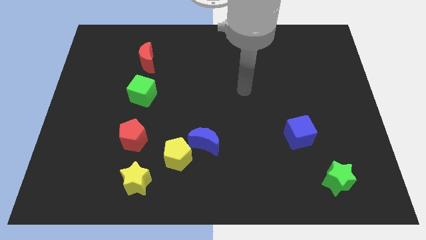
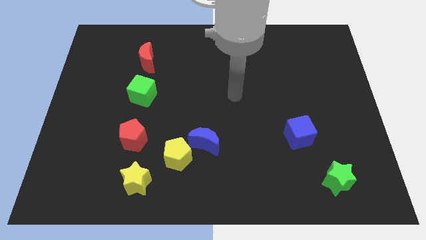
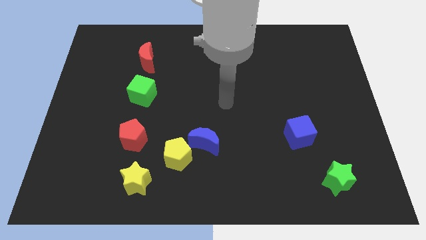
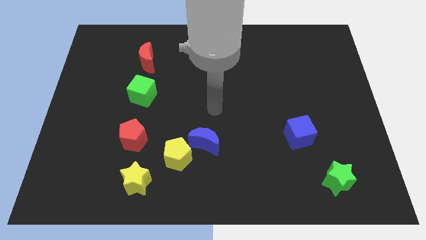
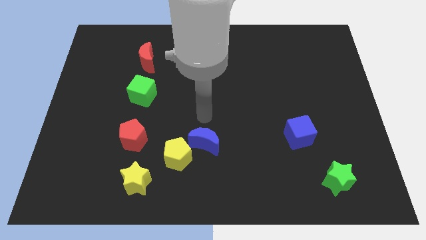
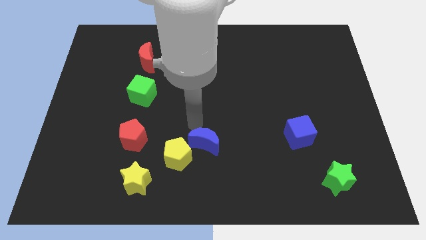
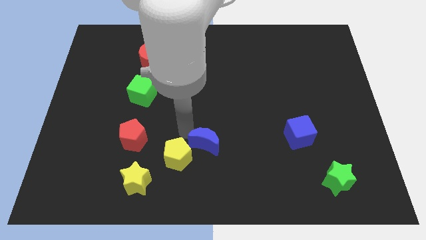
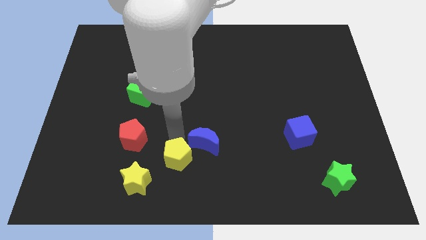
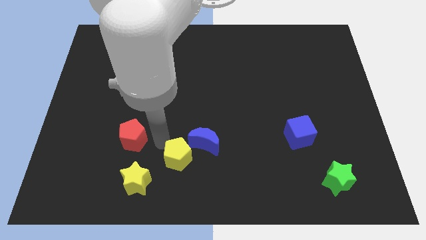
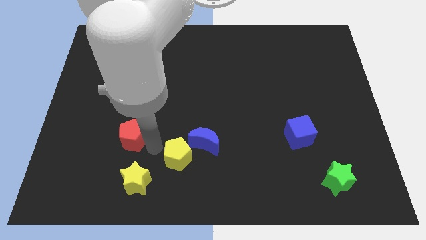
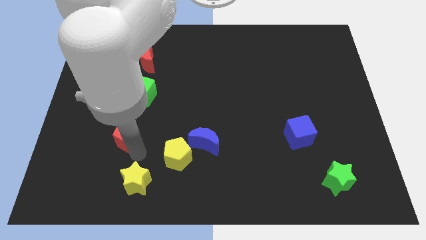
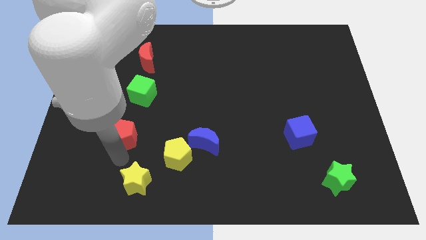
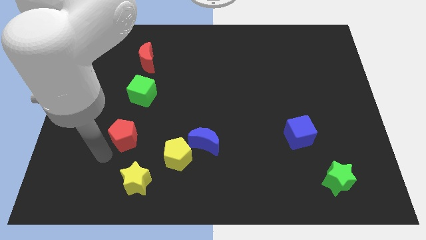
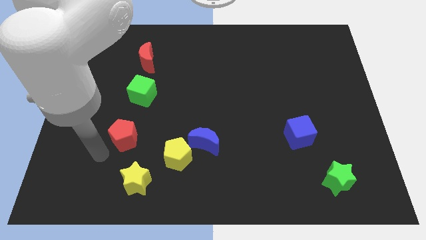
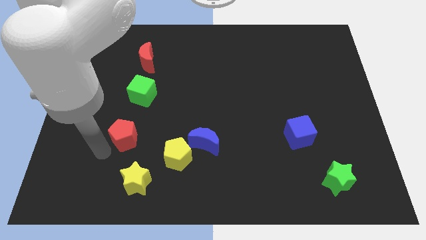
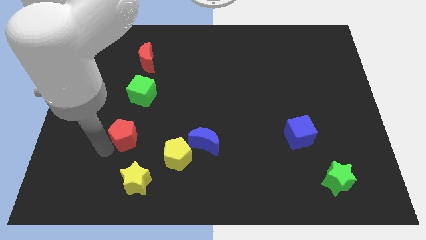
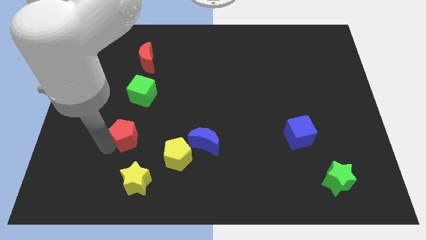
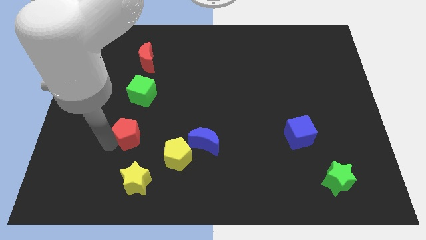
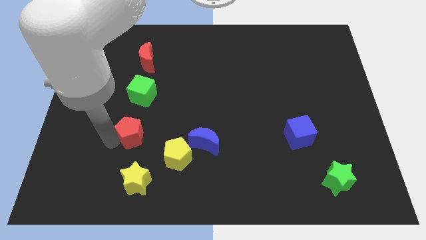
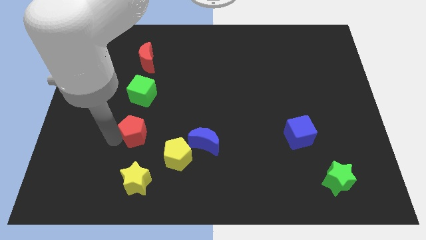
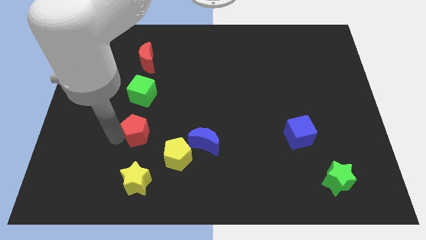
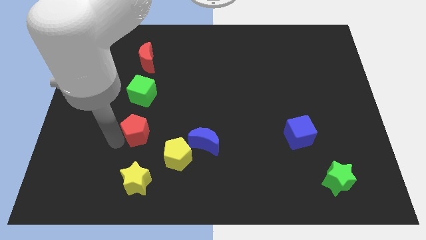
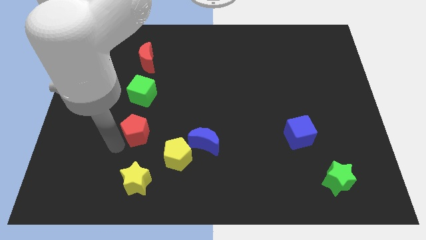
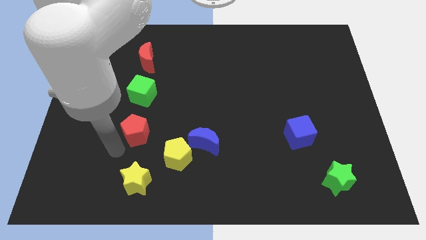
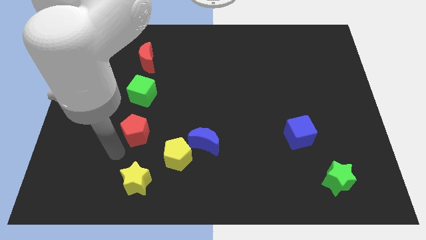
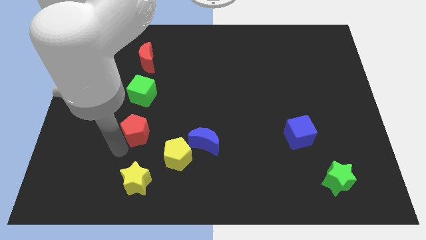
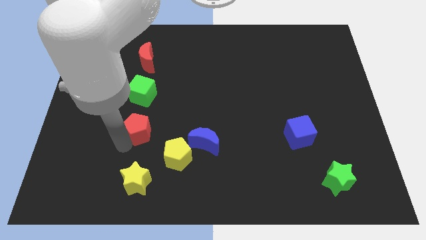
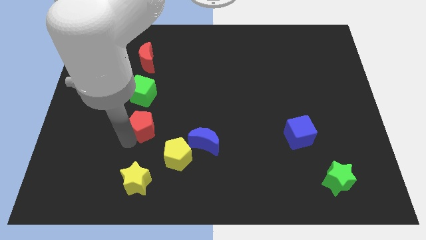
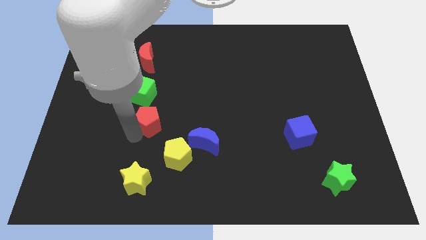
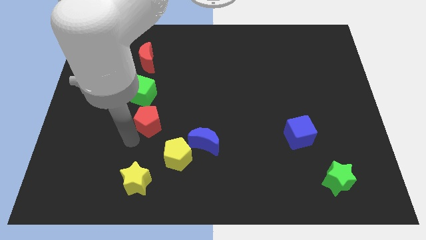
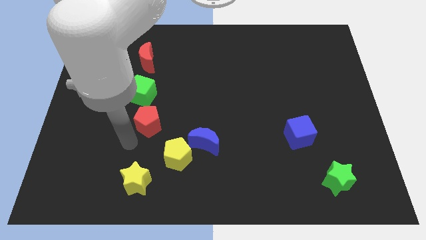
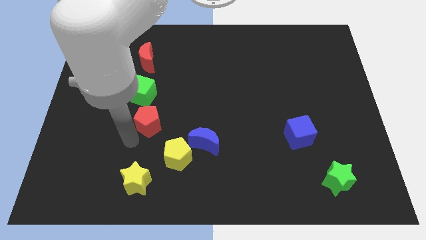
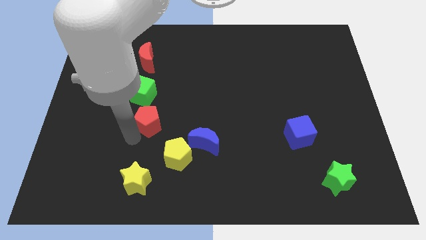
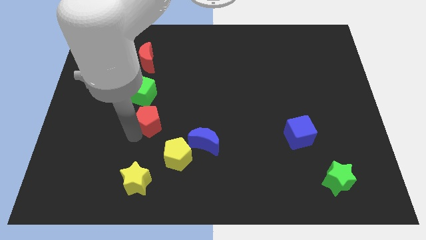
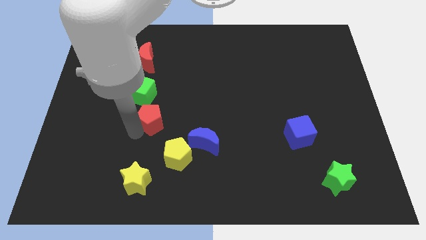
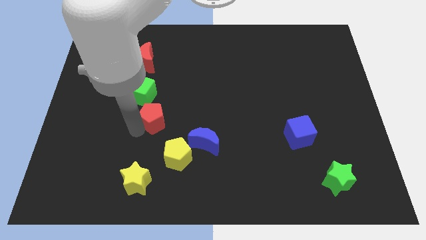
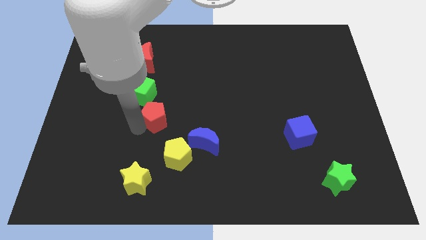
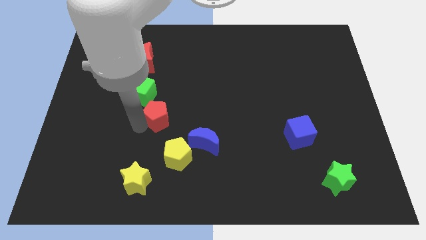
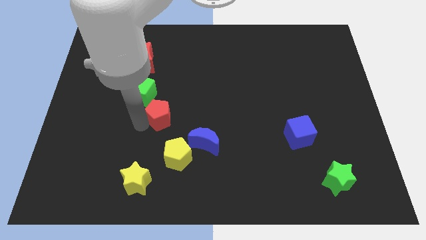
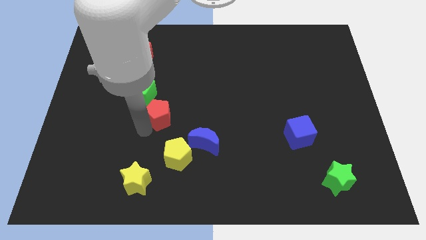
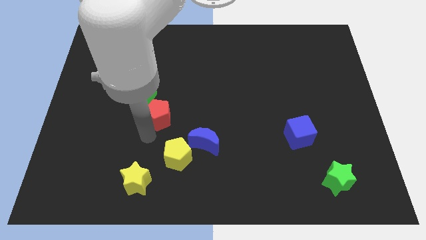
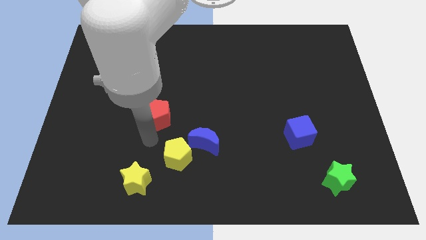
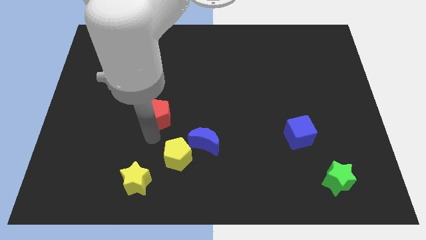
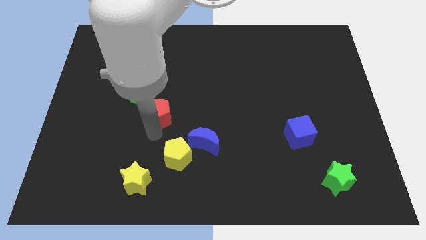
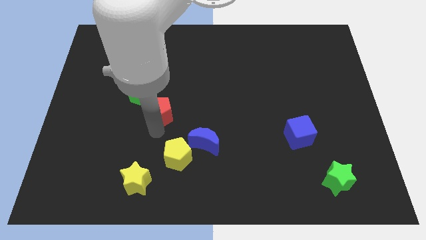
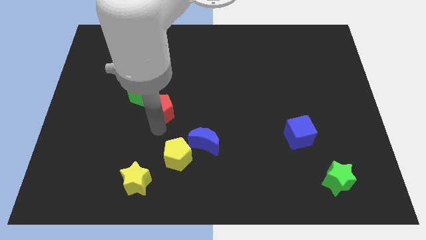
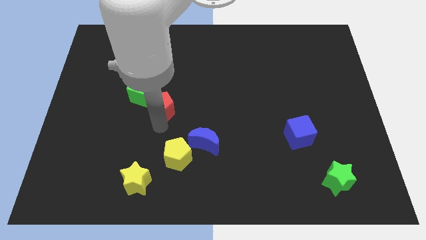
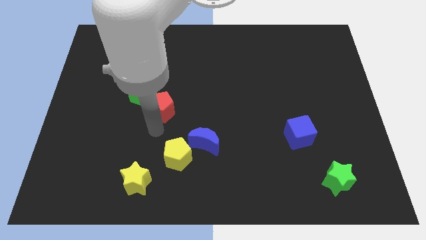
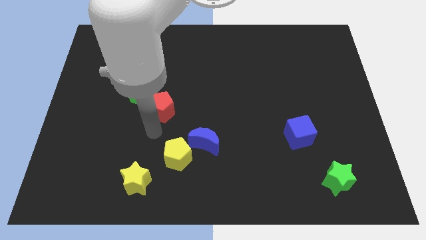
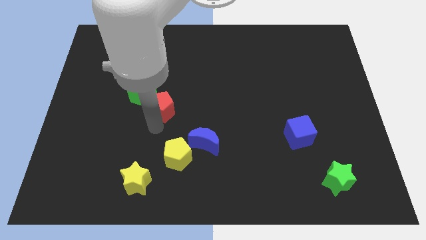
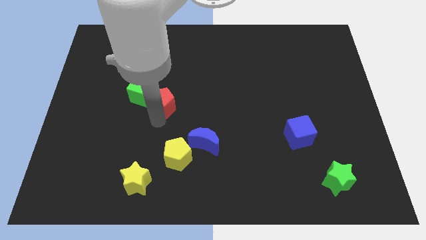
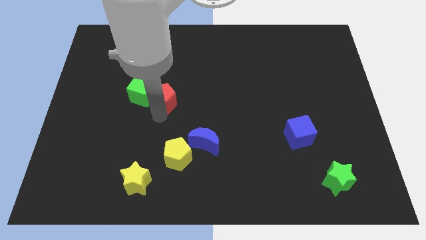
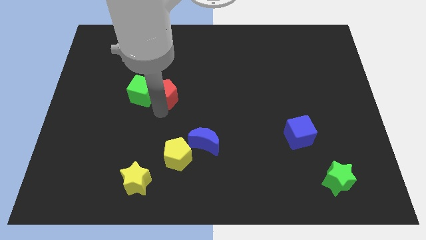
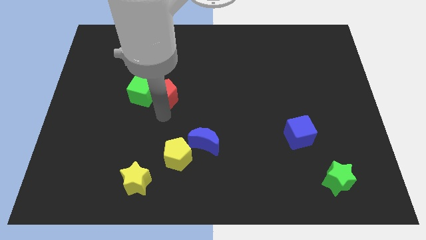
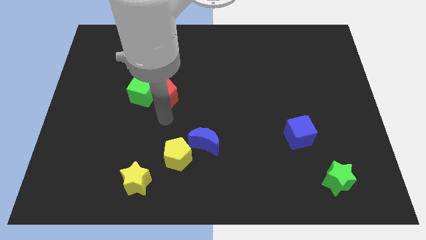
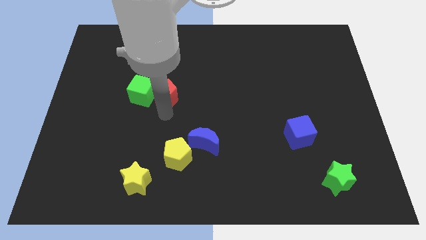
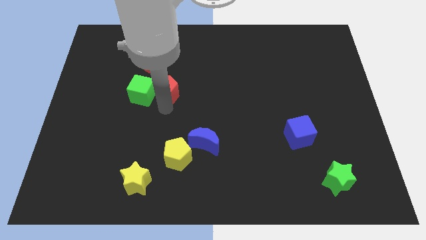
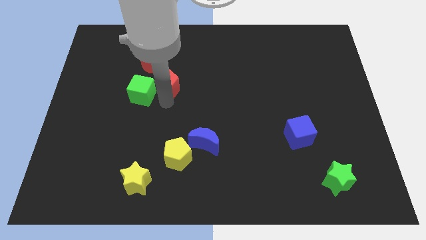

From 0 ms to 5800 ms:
move the red pentagon diagonally down and to the right of the red moon

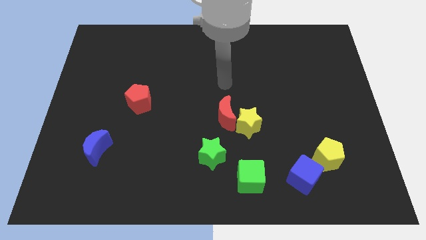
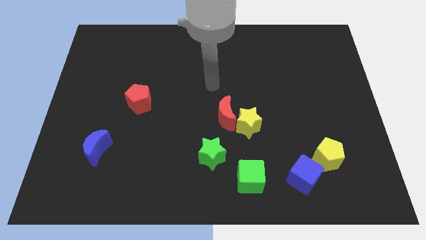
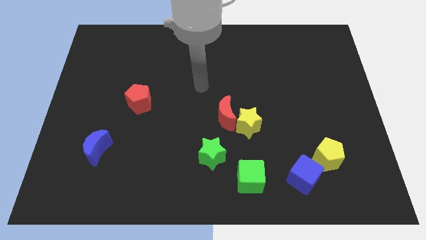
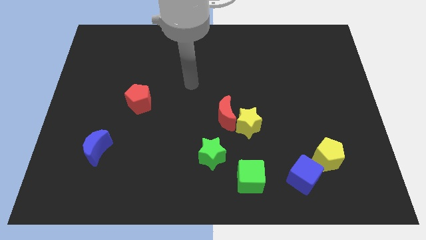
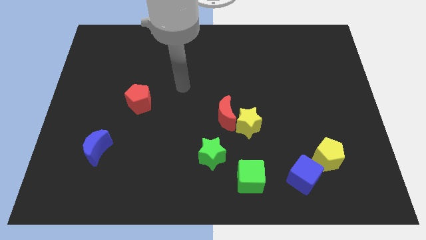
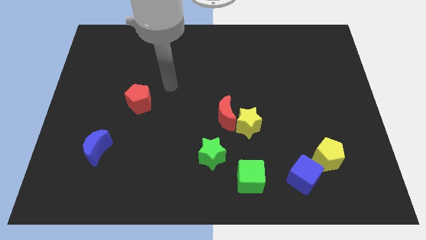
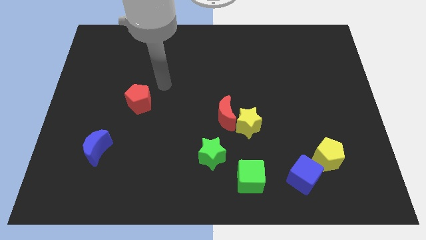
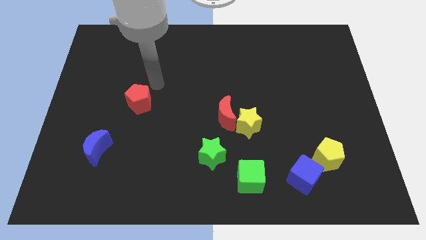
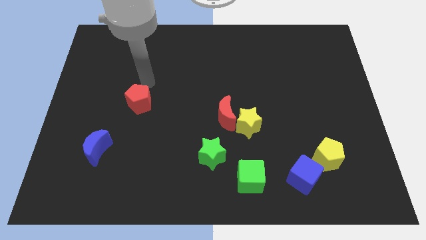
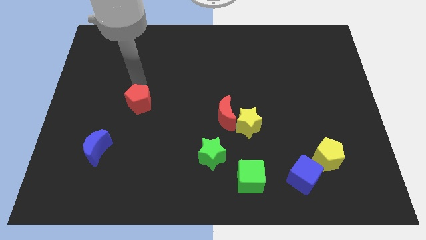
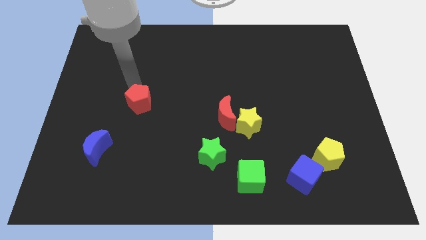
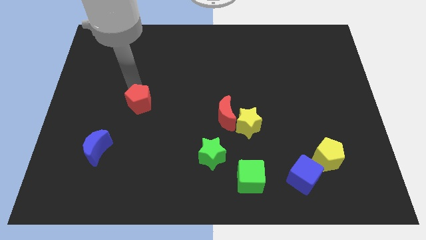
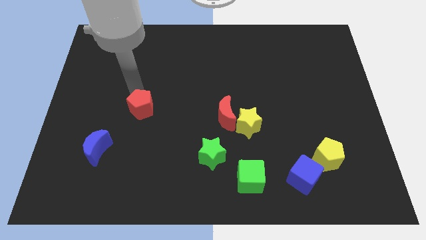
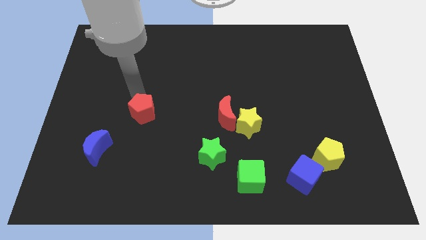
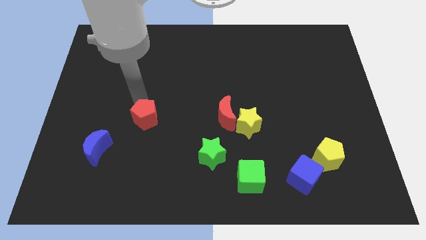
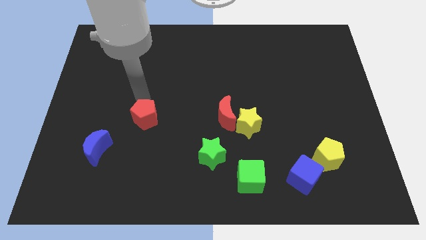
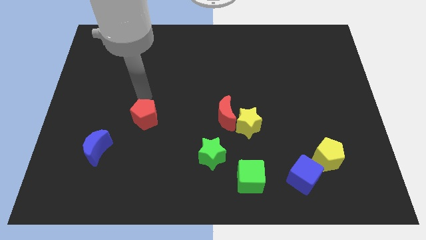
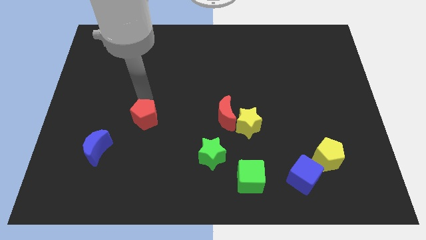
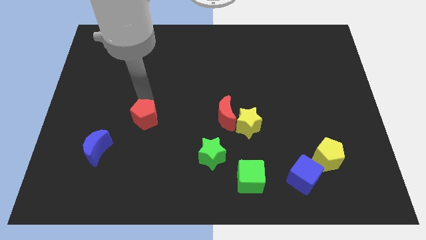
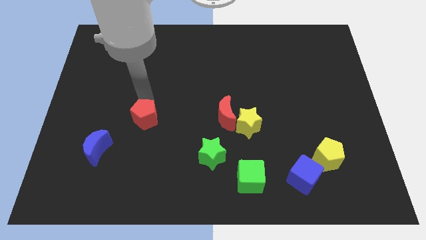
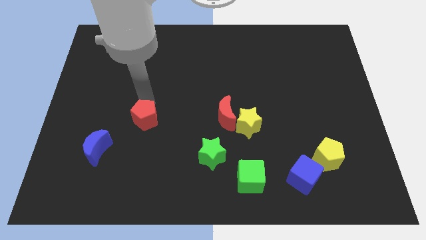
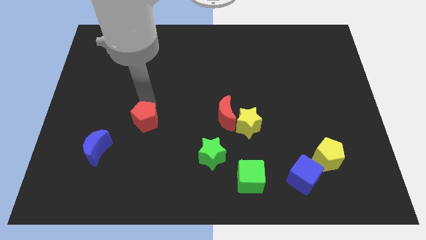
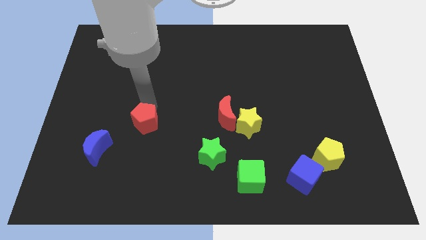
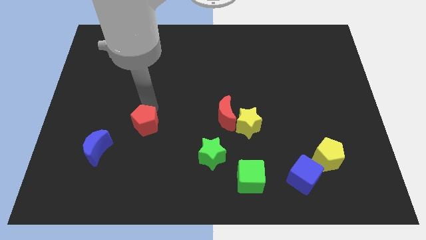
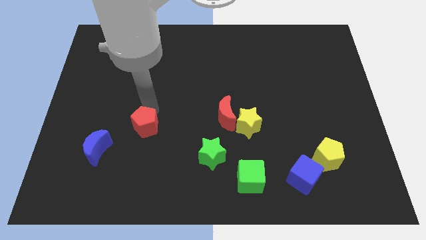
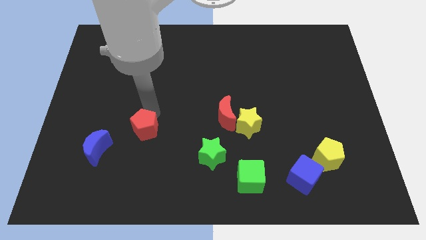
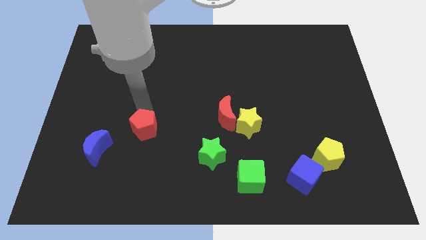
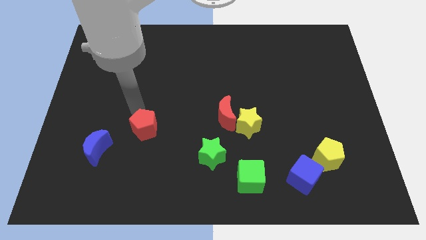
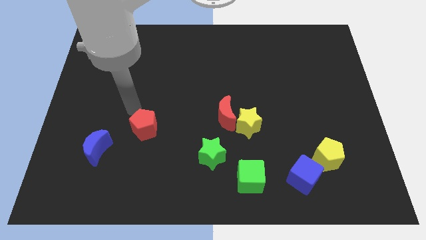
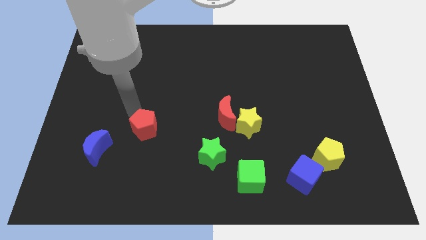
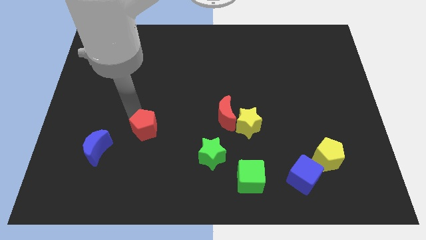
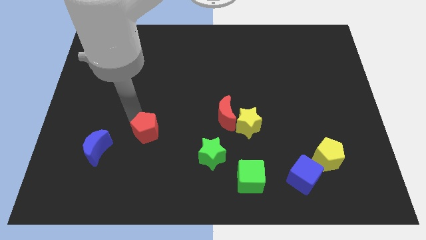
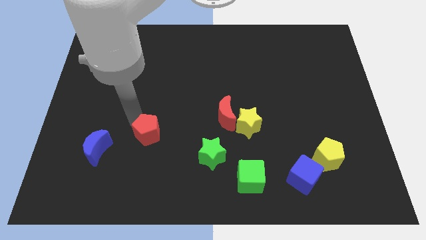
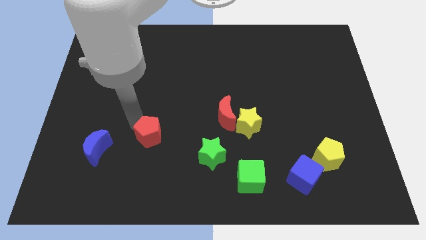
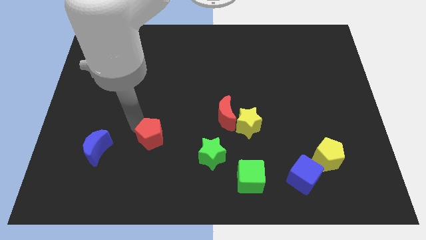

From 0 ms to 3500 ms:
put the red pentagon left of the green star
